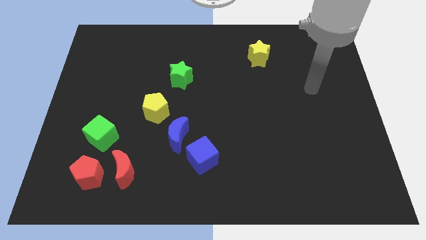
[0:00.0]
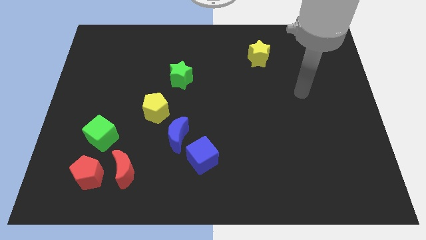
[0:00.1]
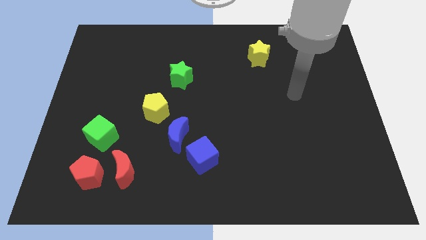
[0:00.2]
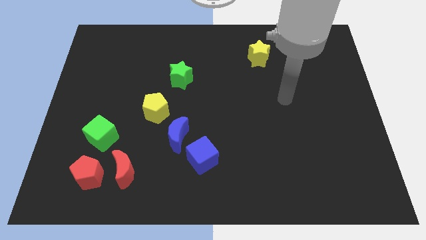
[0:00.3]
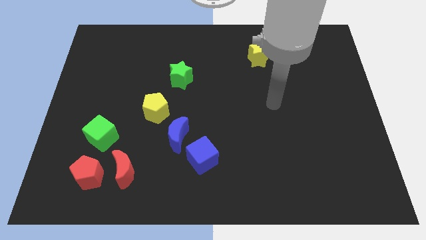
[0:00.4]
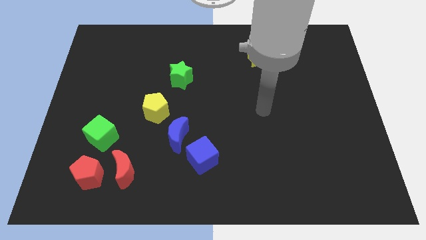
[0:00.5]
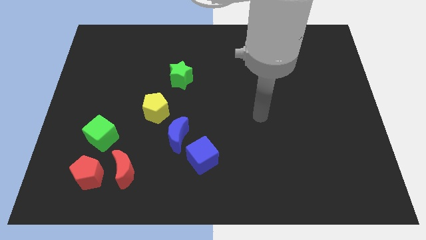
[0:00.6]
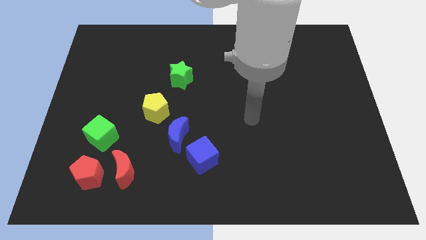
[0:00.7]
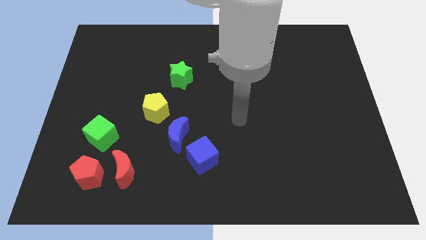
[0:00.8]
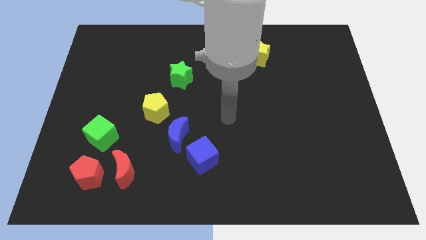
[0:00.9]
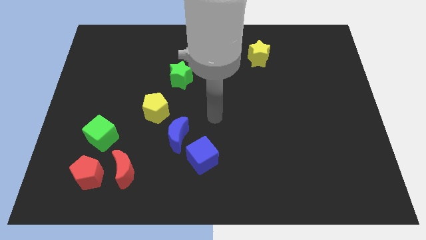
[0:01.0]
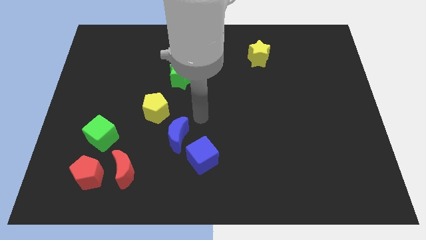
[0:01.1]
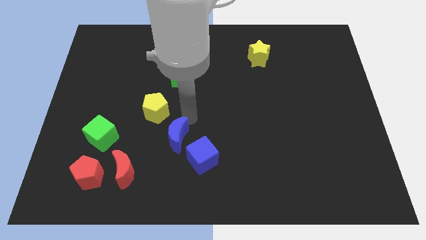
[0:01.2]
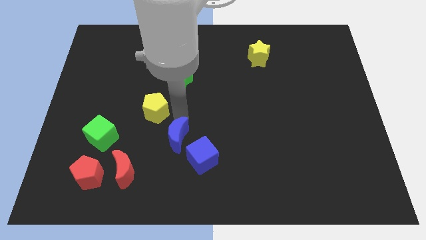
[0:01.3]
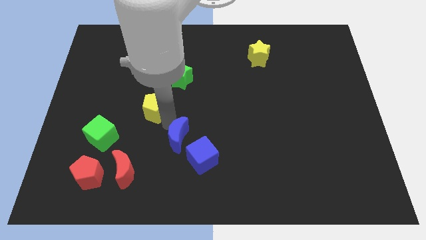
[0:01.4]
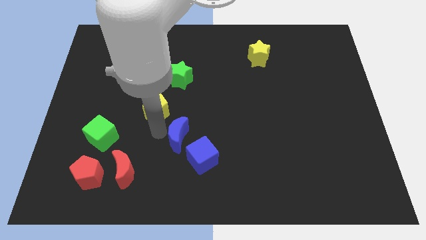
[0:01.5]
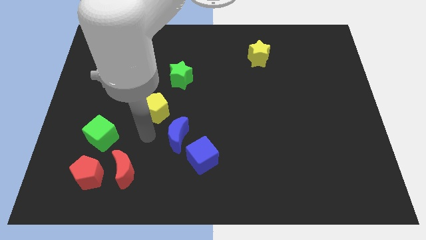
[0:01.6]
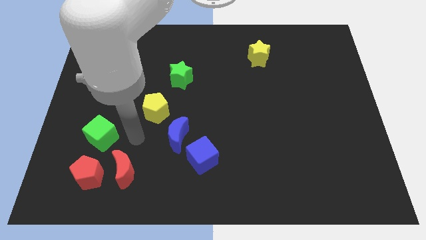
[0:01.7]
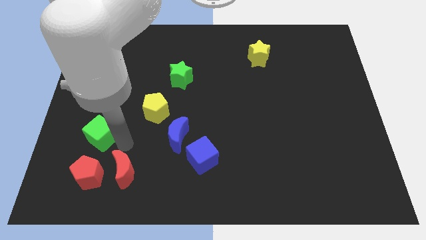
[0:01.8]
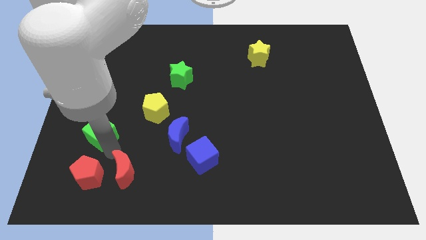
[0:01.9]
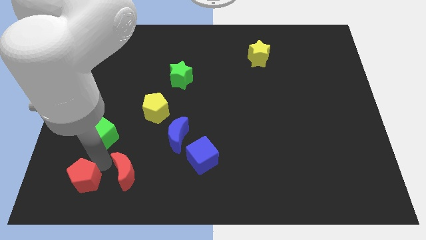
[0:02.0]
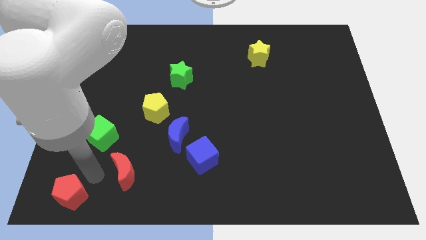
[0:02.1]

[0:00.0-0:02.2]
move the red moon away from the red pentagon

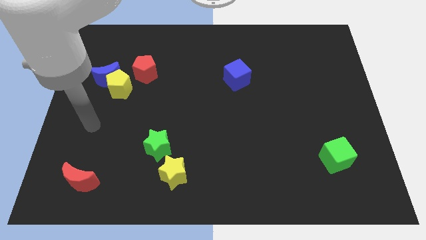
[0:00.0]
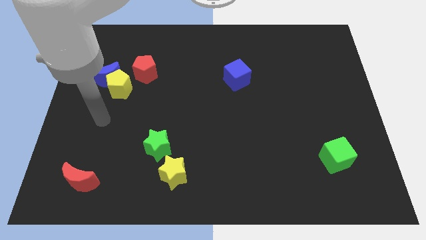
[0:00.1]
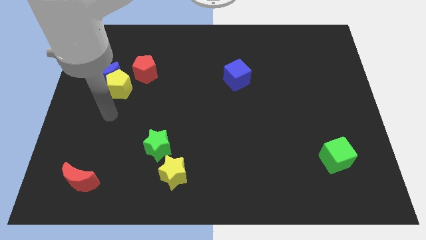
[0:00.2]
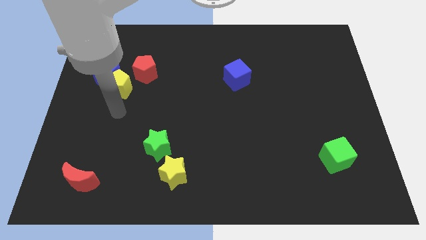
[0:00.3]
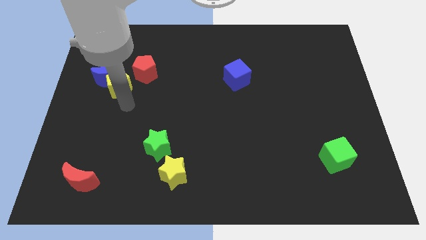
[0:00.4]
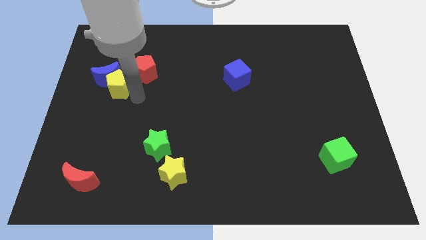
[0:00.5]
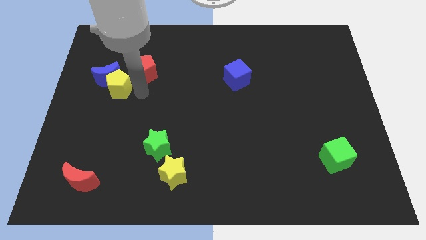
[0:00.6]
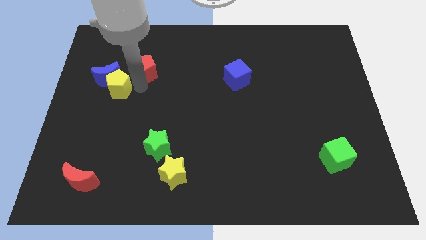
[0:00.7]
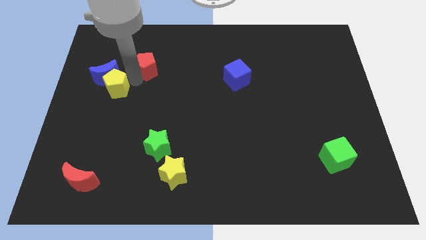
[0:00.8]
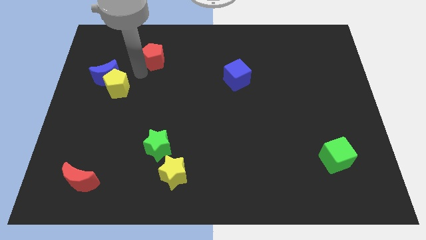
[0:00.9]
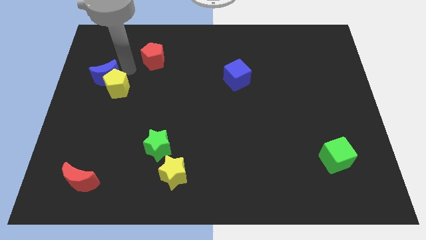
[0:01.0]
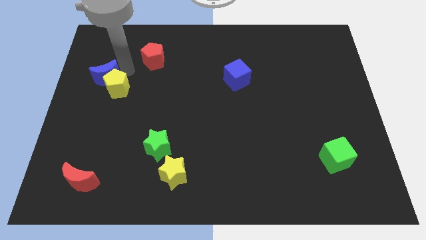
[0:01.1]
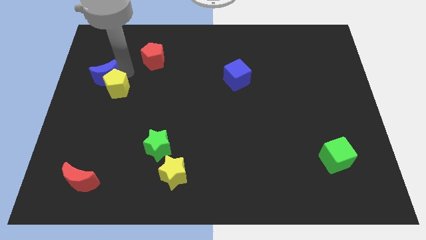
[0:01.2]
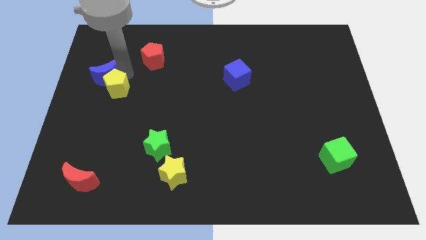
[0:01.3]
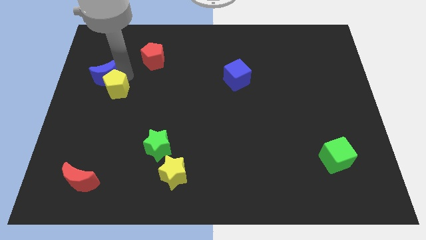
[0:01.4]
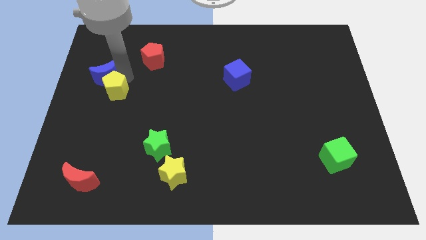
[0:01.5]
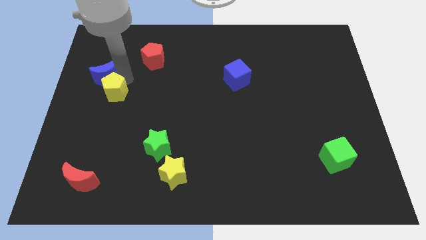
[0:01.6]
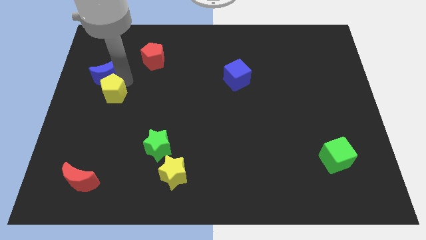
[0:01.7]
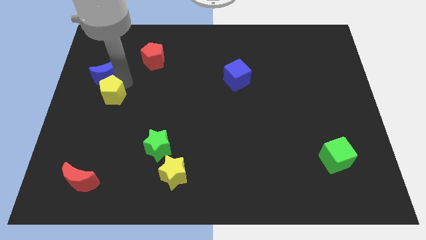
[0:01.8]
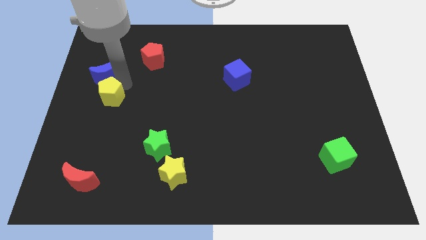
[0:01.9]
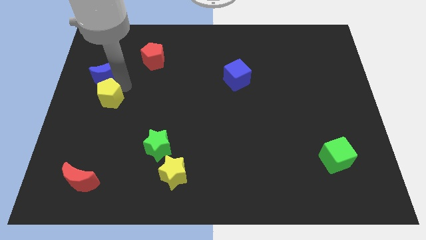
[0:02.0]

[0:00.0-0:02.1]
move the yellow pentagon away from the blue moon and red pentagon

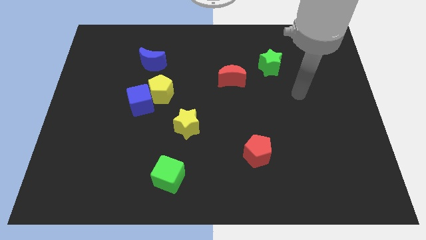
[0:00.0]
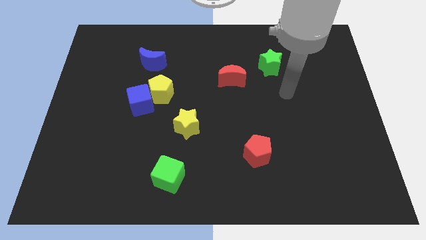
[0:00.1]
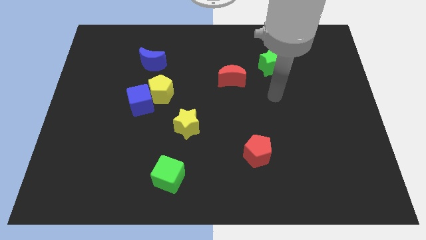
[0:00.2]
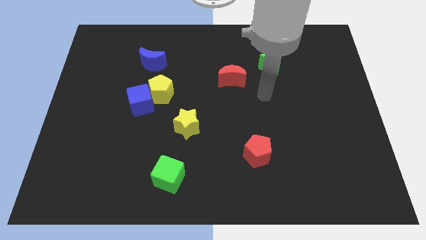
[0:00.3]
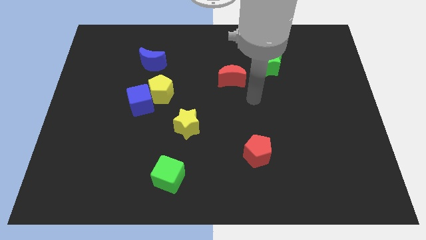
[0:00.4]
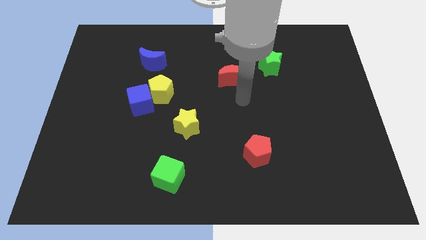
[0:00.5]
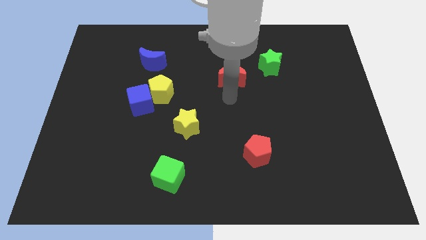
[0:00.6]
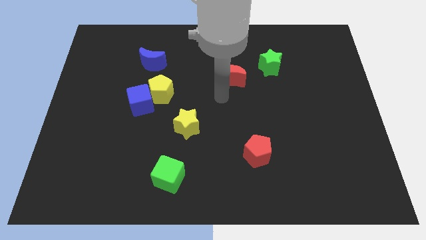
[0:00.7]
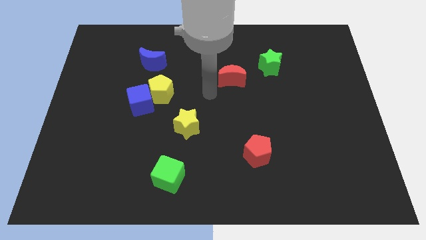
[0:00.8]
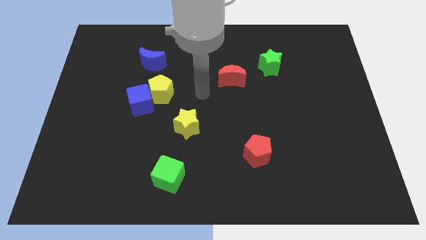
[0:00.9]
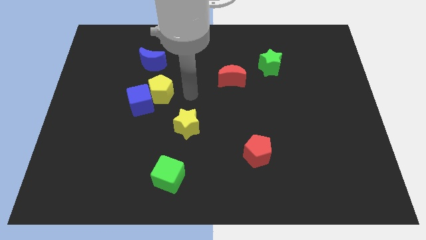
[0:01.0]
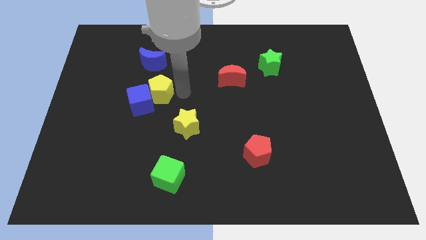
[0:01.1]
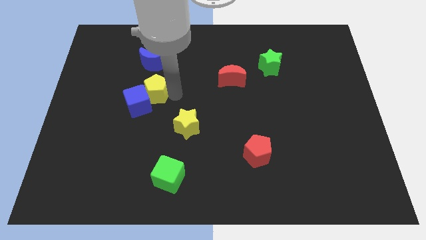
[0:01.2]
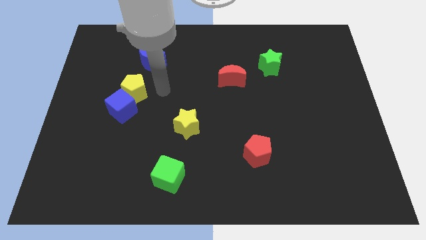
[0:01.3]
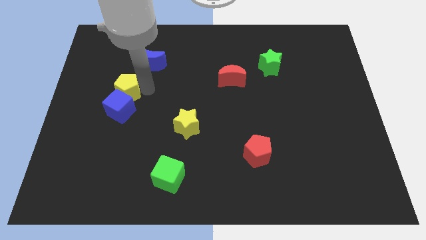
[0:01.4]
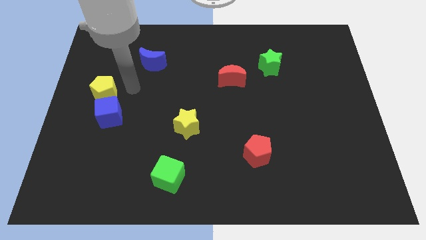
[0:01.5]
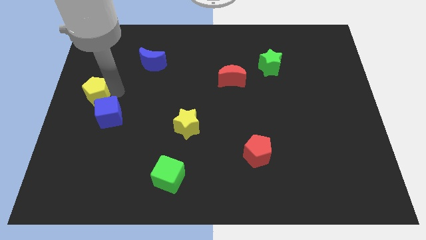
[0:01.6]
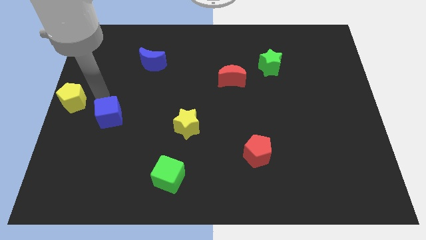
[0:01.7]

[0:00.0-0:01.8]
pull the blue cube apart from the yellow pentagon

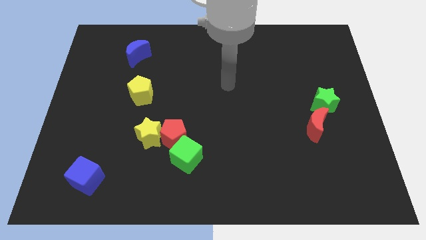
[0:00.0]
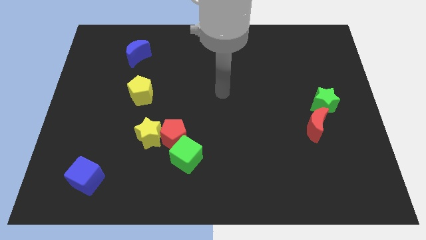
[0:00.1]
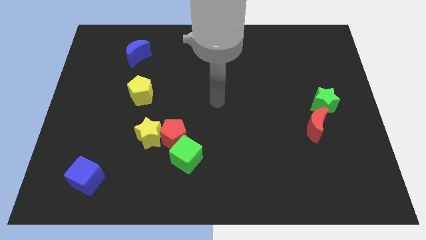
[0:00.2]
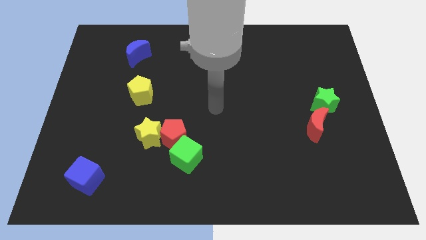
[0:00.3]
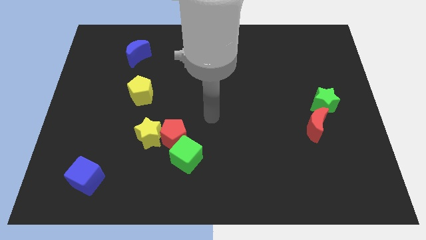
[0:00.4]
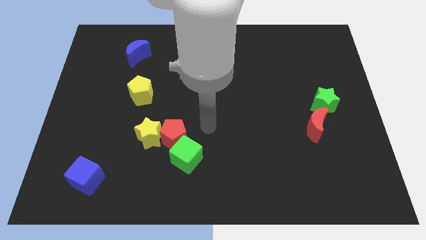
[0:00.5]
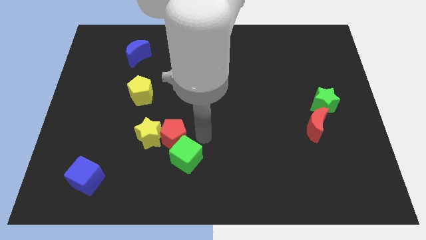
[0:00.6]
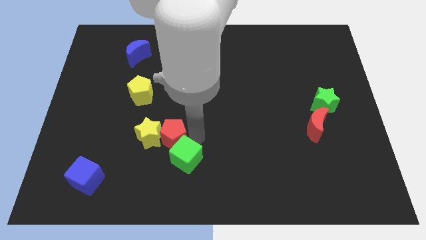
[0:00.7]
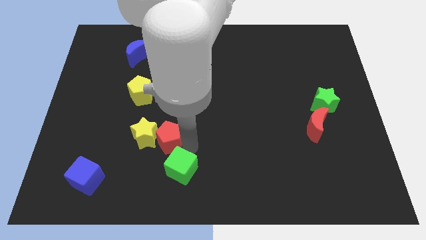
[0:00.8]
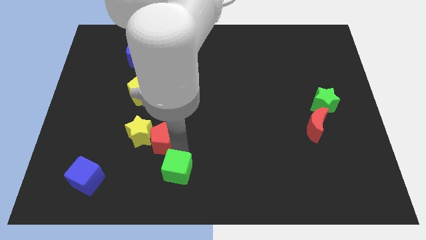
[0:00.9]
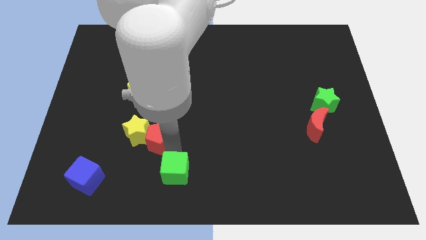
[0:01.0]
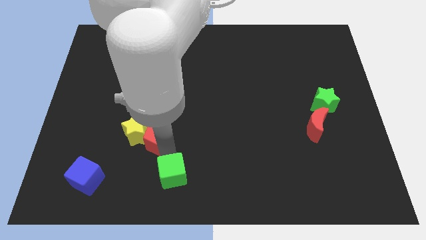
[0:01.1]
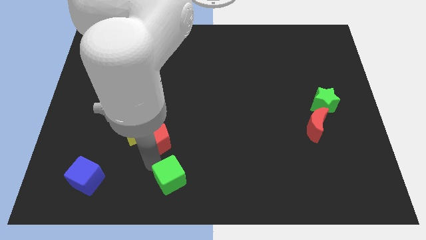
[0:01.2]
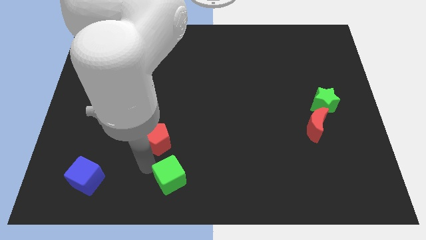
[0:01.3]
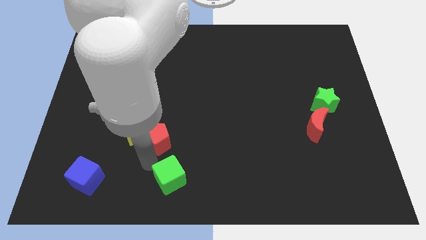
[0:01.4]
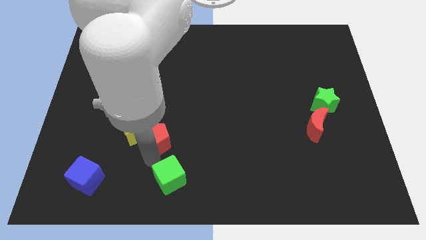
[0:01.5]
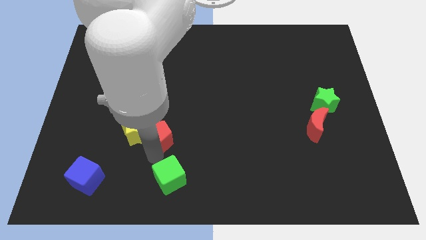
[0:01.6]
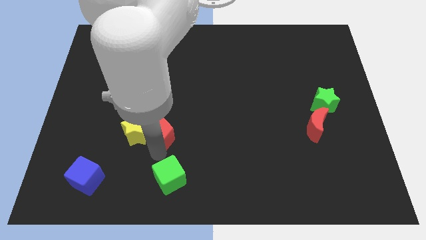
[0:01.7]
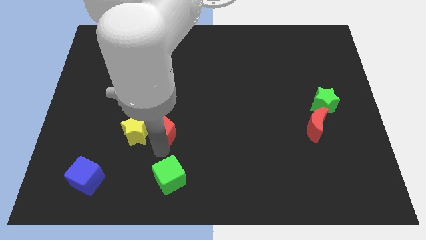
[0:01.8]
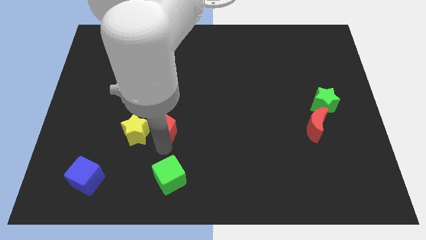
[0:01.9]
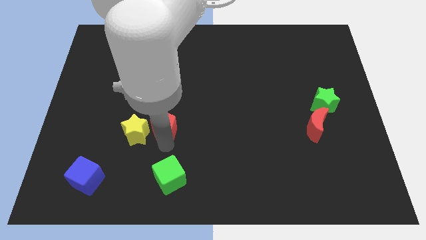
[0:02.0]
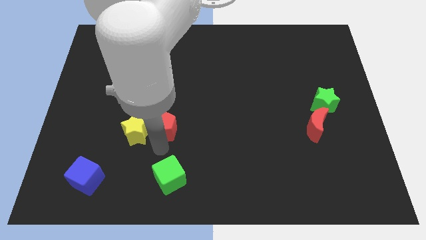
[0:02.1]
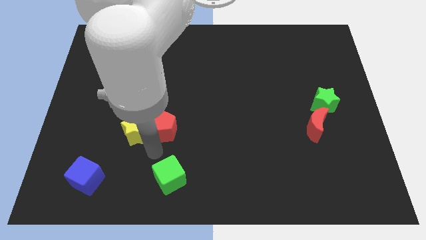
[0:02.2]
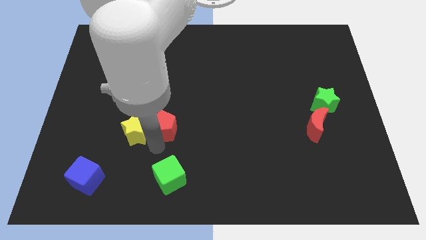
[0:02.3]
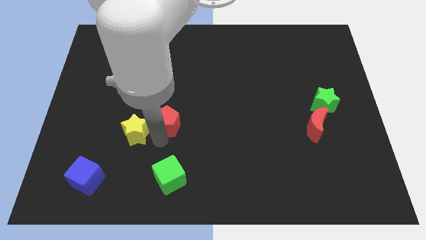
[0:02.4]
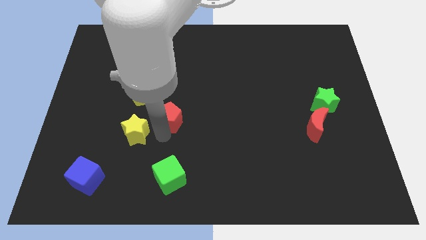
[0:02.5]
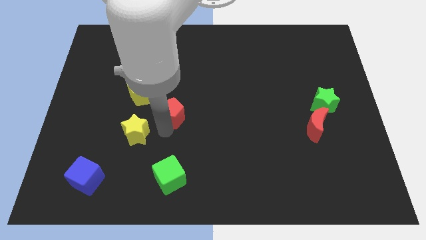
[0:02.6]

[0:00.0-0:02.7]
pull the red pentagon apart from the yellow star and green cube

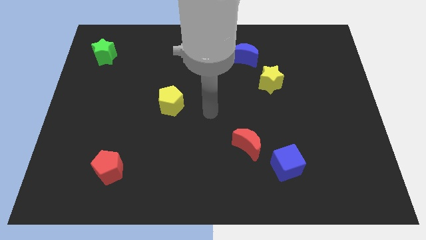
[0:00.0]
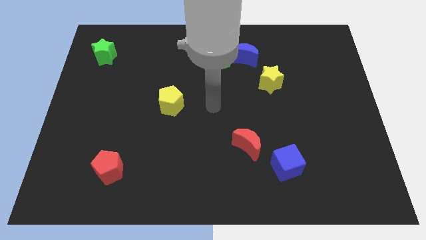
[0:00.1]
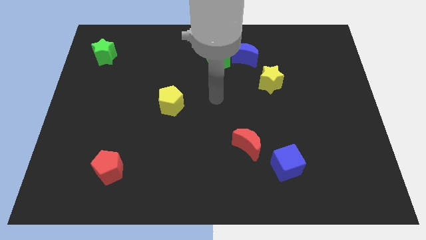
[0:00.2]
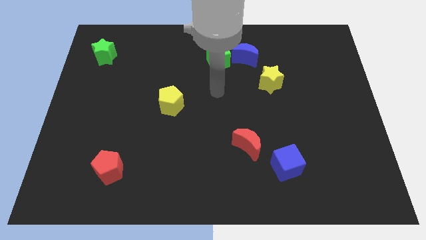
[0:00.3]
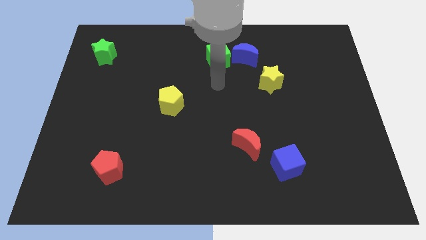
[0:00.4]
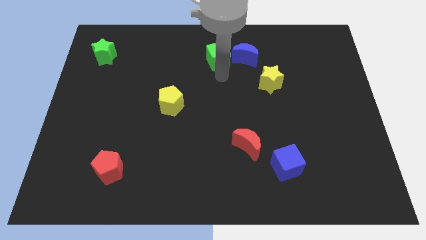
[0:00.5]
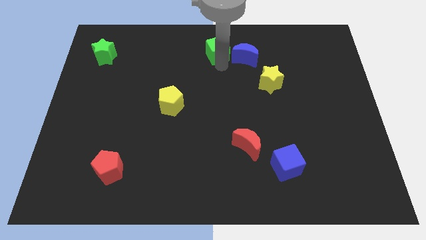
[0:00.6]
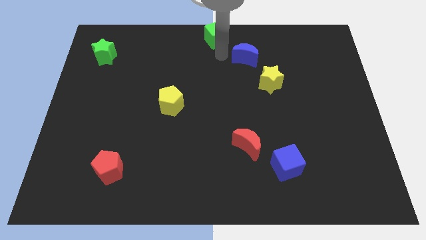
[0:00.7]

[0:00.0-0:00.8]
separate the blue moon from the green cube
